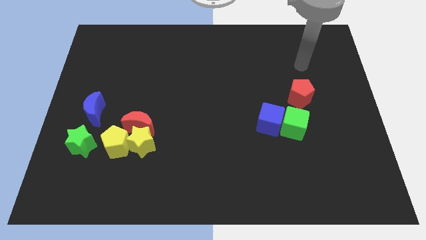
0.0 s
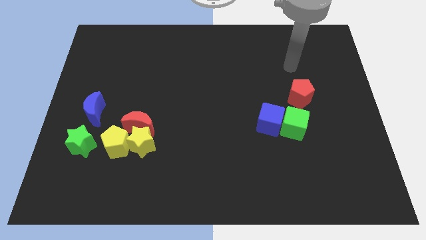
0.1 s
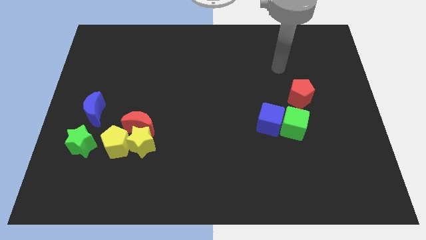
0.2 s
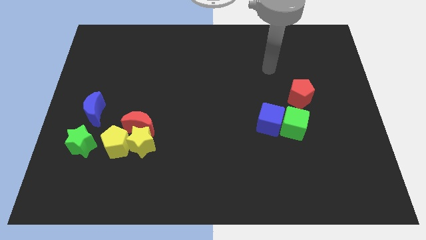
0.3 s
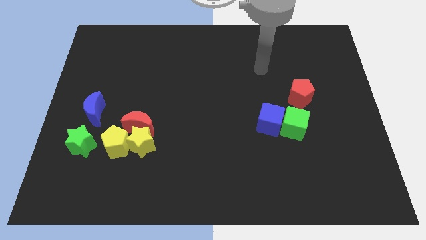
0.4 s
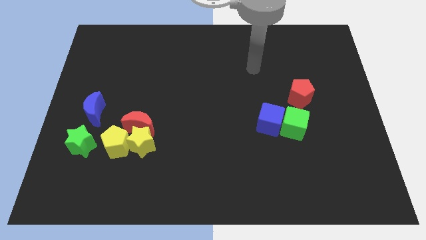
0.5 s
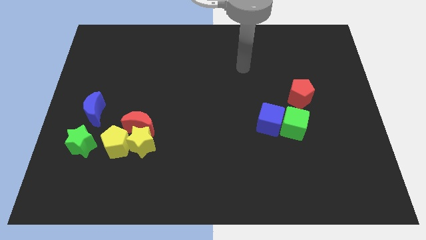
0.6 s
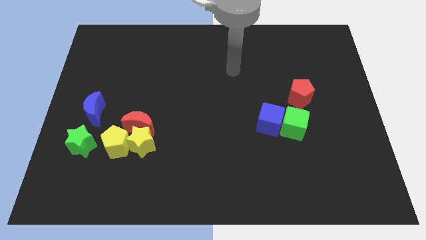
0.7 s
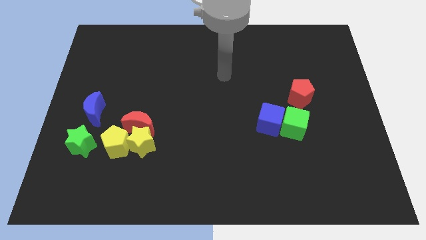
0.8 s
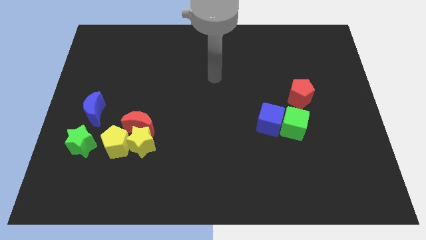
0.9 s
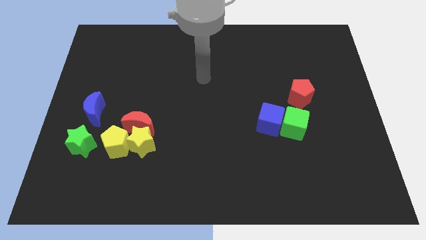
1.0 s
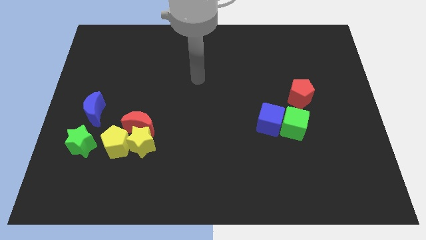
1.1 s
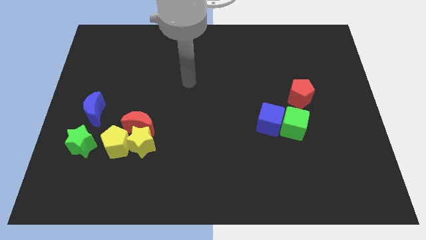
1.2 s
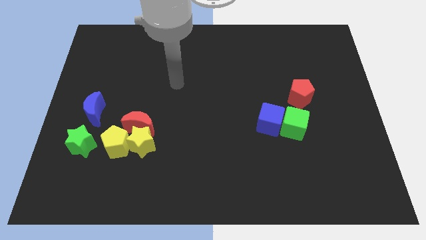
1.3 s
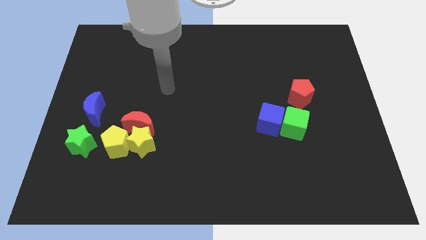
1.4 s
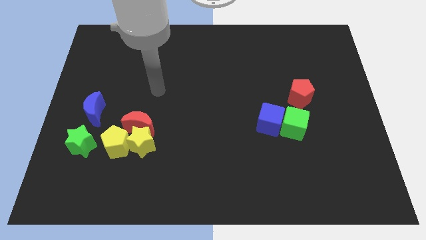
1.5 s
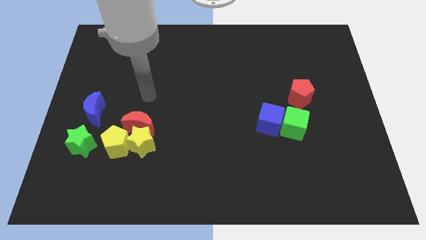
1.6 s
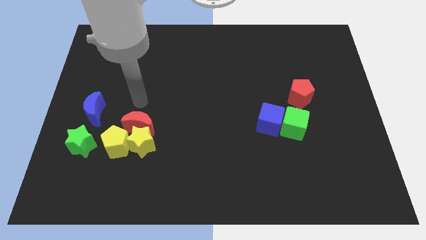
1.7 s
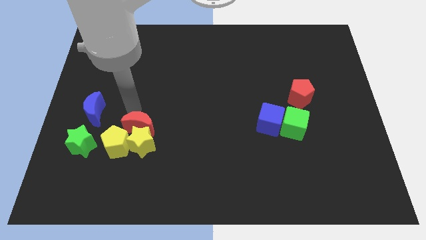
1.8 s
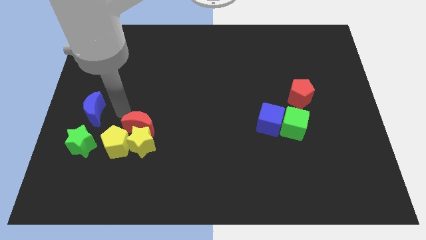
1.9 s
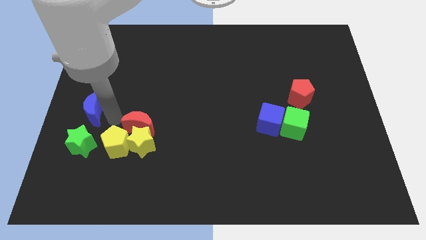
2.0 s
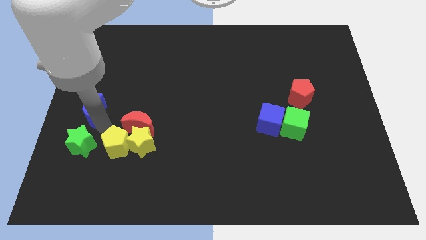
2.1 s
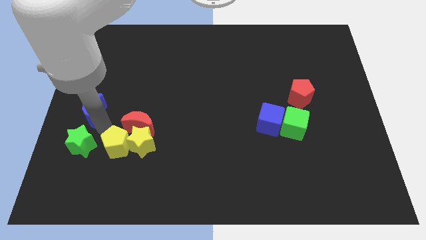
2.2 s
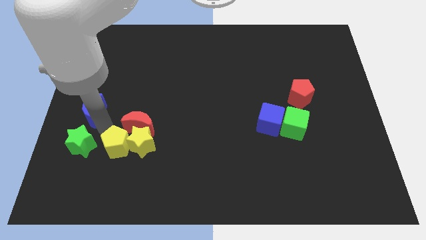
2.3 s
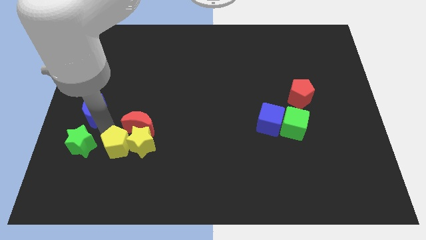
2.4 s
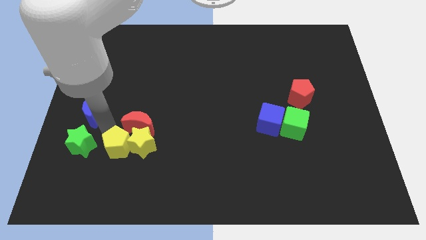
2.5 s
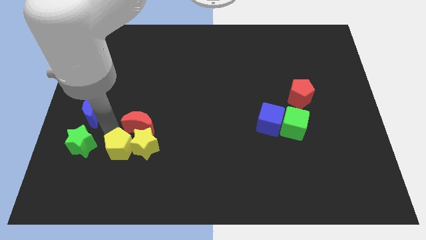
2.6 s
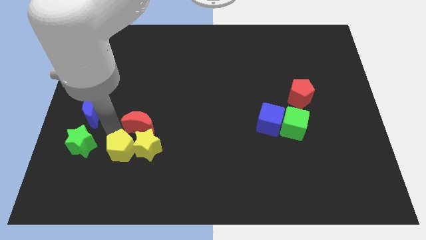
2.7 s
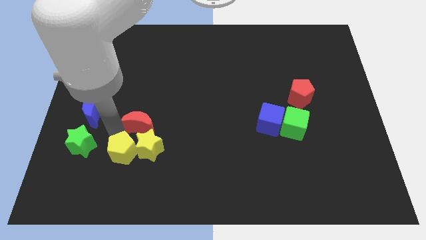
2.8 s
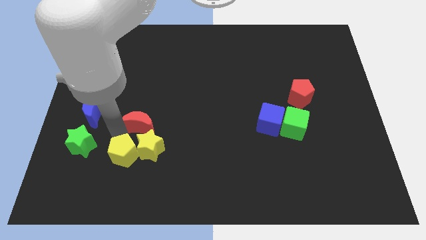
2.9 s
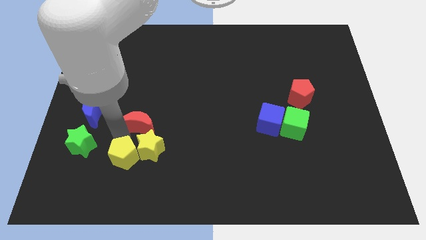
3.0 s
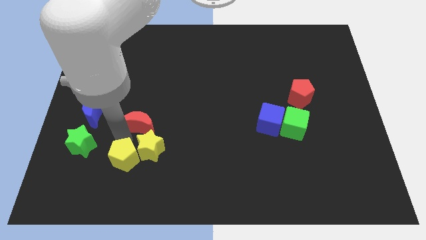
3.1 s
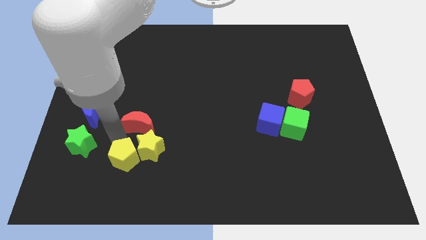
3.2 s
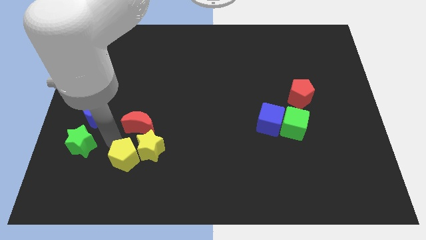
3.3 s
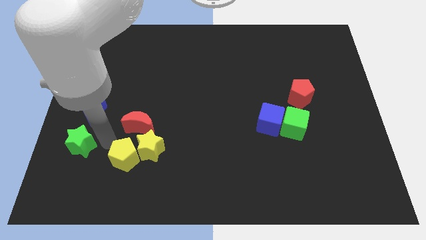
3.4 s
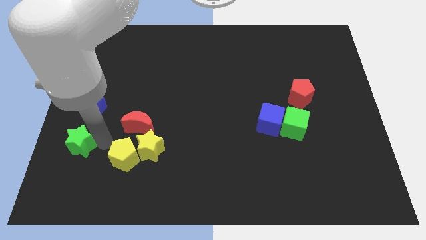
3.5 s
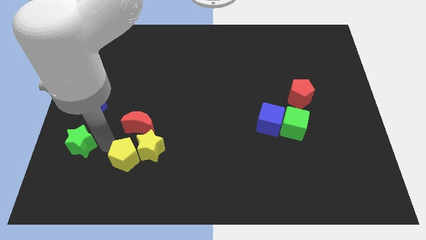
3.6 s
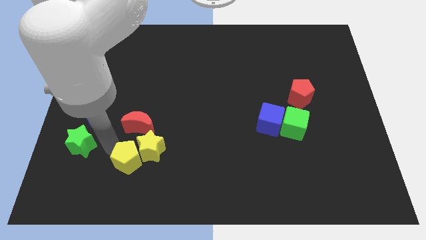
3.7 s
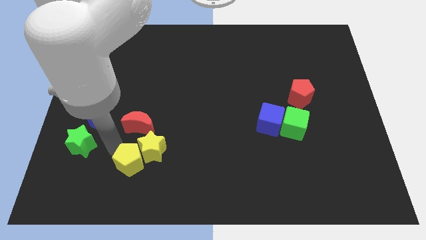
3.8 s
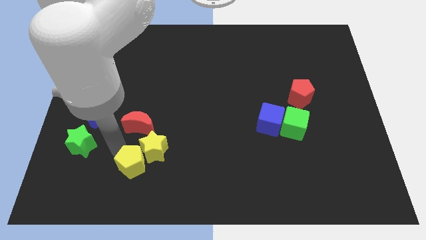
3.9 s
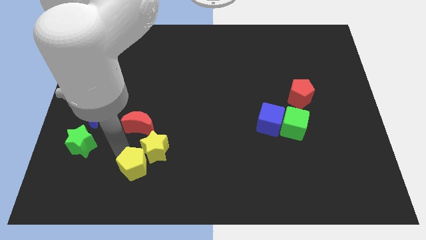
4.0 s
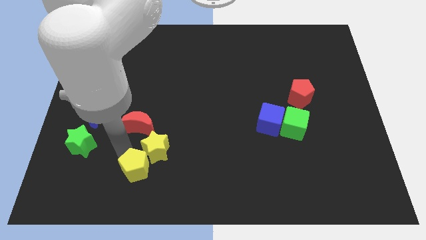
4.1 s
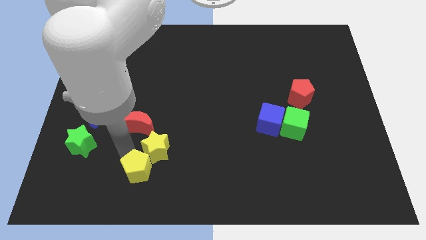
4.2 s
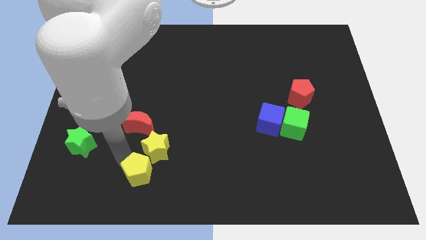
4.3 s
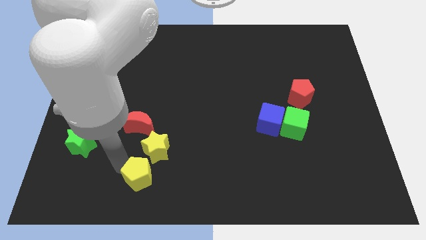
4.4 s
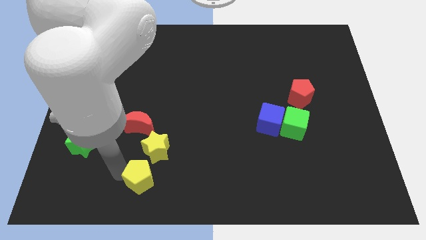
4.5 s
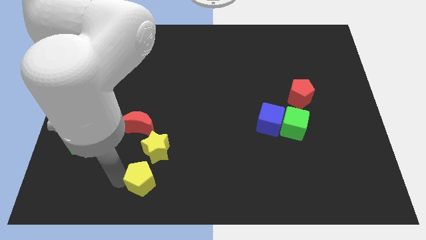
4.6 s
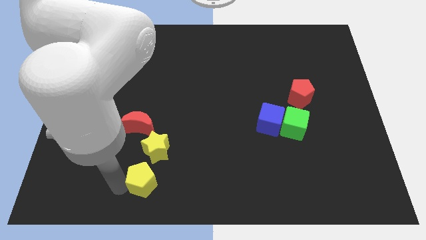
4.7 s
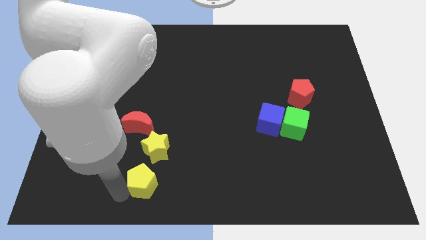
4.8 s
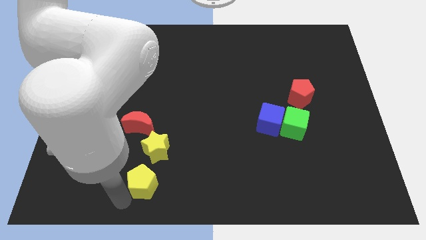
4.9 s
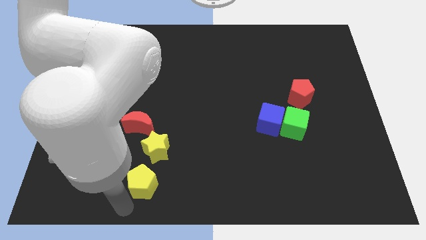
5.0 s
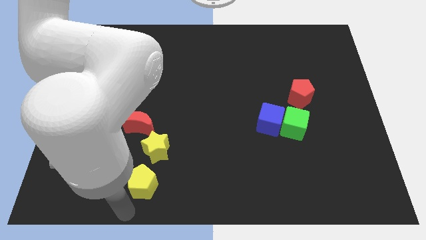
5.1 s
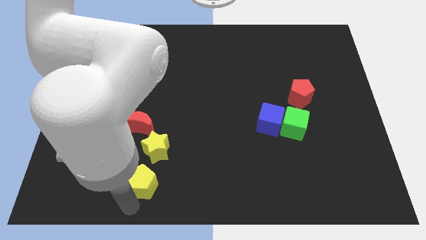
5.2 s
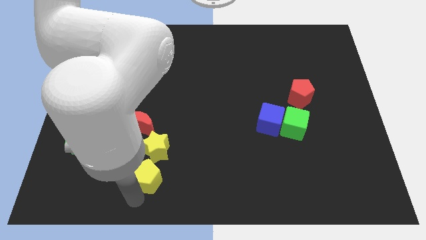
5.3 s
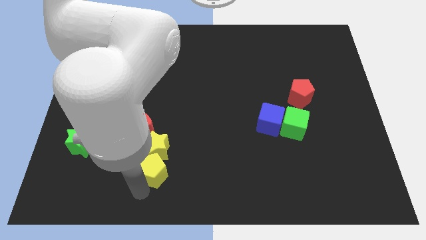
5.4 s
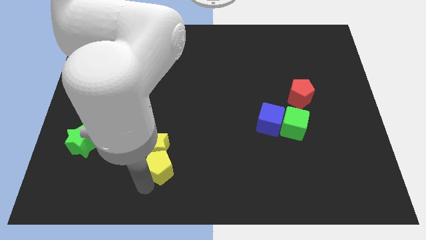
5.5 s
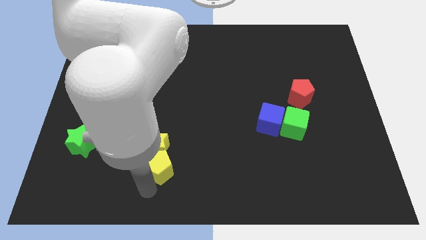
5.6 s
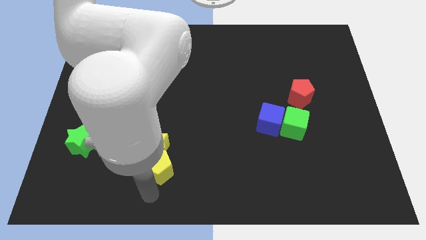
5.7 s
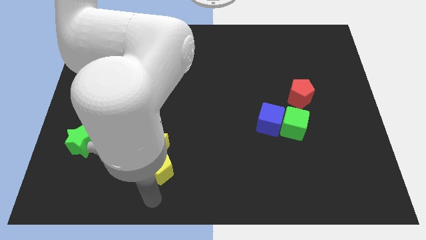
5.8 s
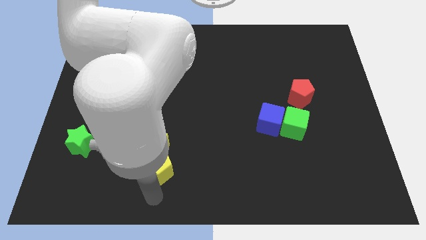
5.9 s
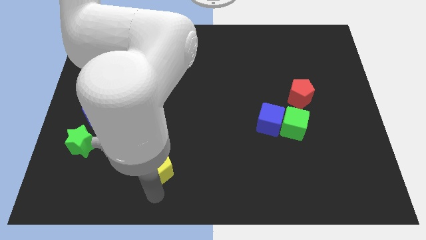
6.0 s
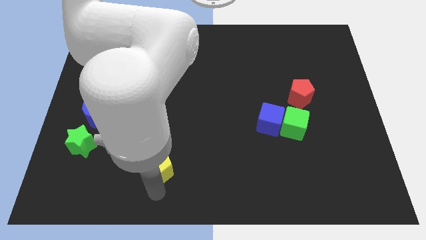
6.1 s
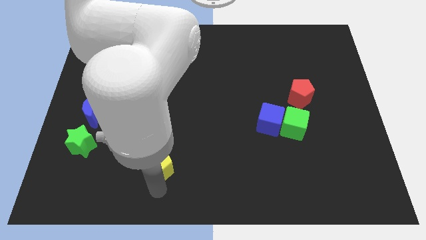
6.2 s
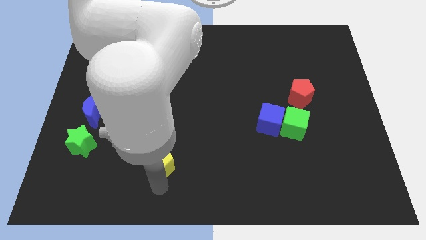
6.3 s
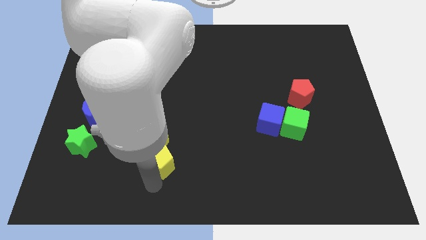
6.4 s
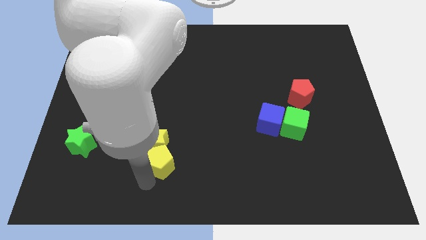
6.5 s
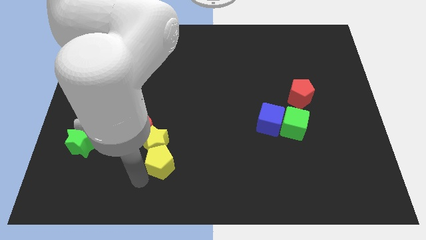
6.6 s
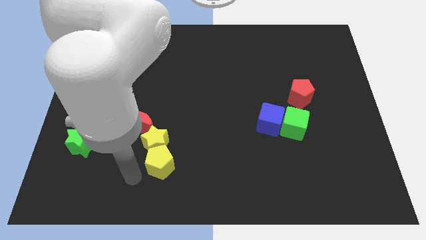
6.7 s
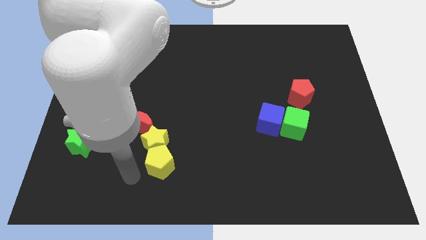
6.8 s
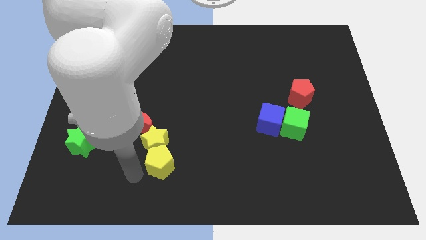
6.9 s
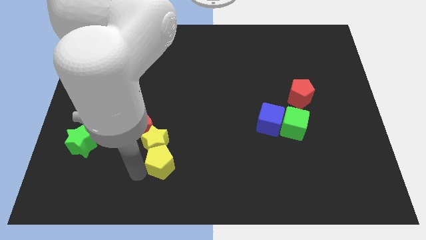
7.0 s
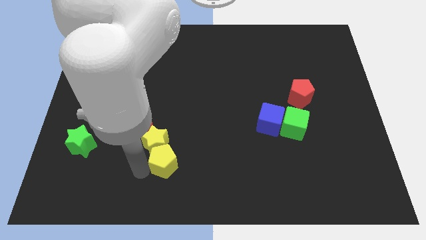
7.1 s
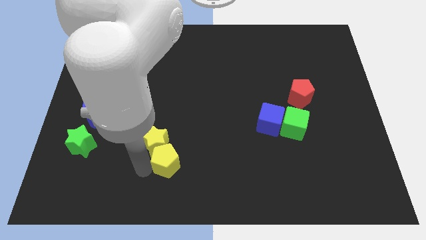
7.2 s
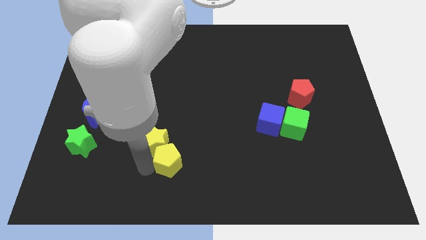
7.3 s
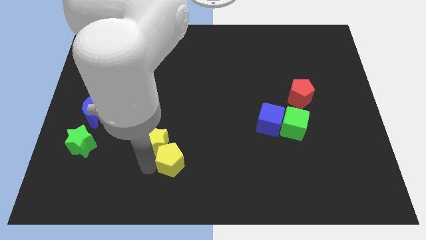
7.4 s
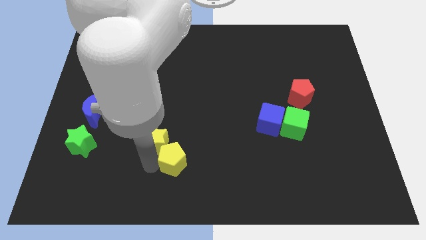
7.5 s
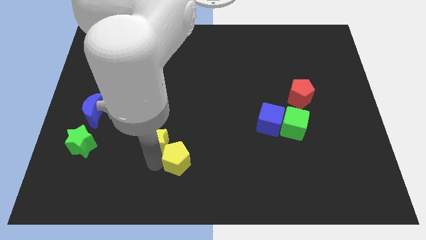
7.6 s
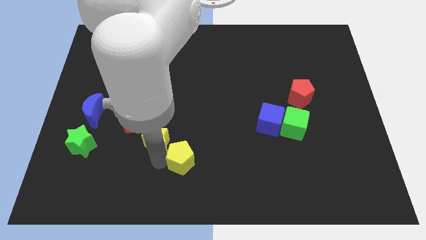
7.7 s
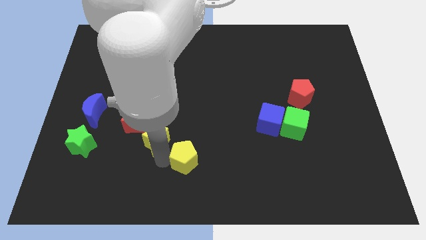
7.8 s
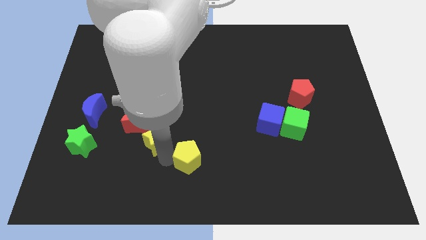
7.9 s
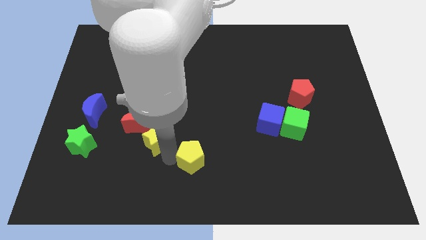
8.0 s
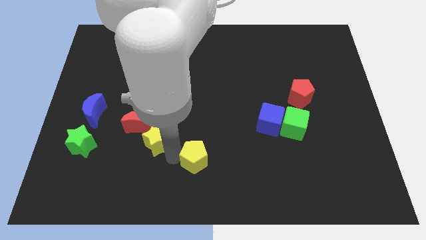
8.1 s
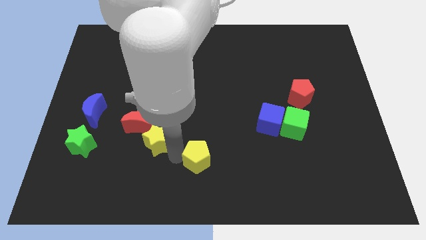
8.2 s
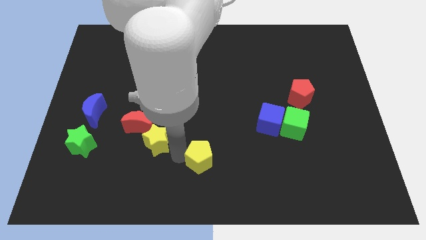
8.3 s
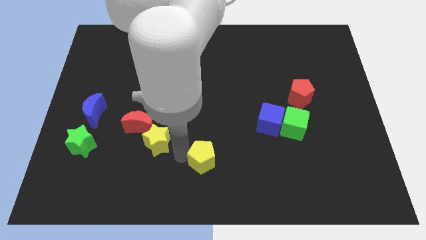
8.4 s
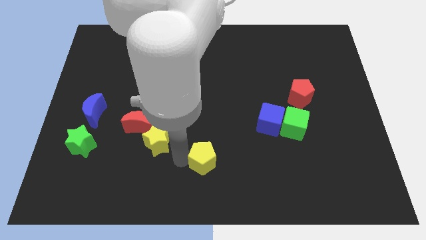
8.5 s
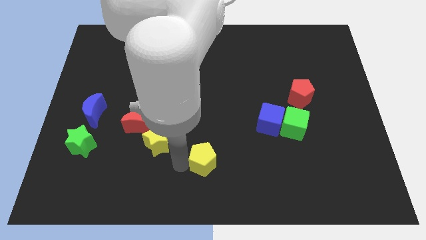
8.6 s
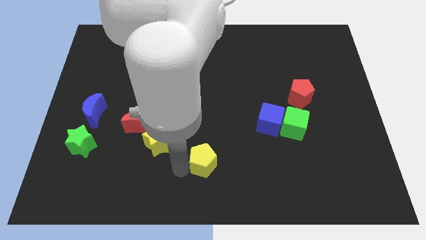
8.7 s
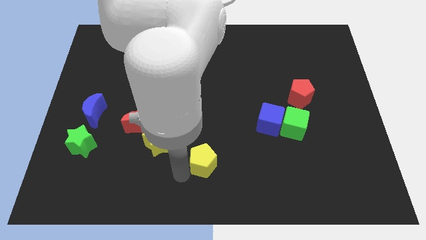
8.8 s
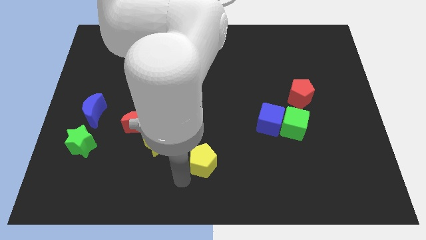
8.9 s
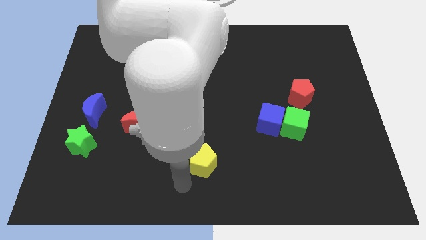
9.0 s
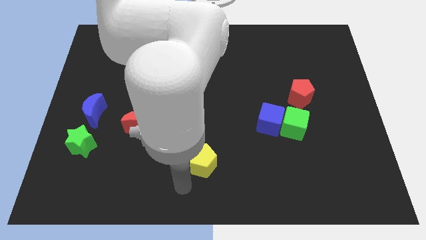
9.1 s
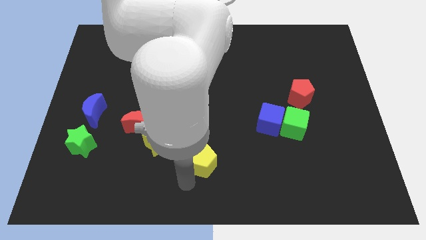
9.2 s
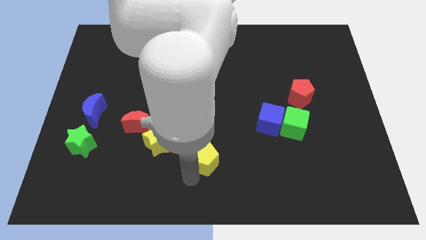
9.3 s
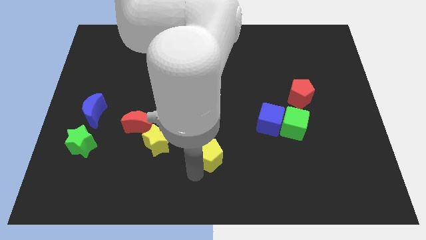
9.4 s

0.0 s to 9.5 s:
slide the yellow pentagon right
